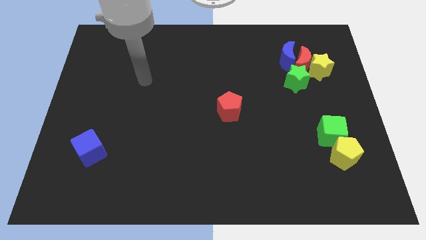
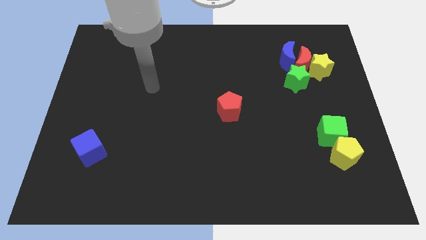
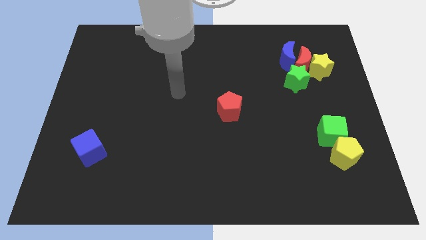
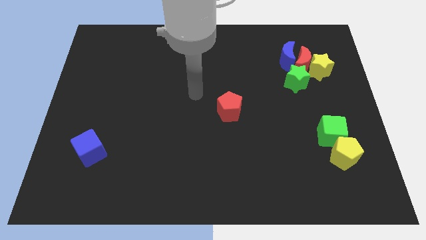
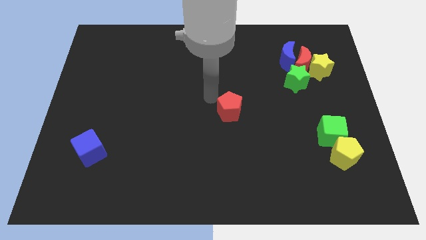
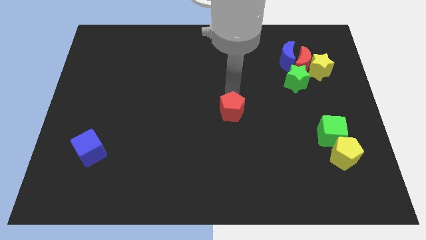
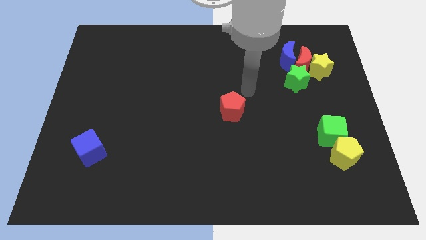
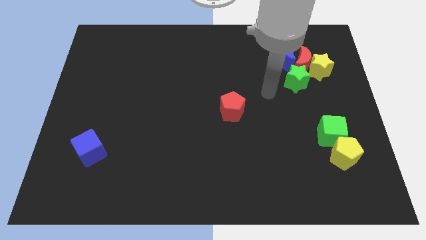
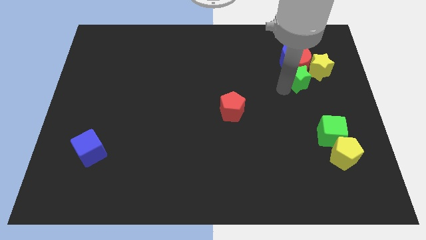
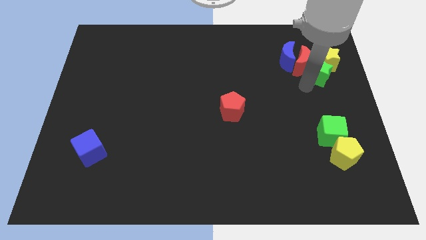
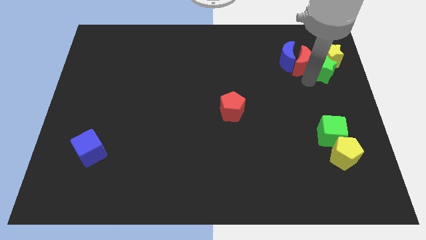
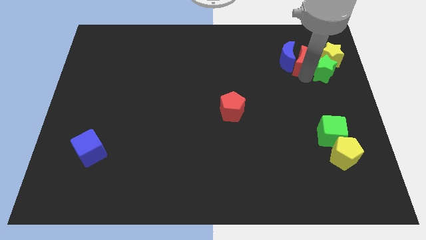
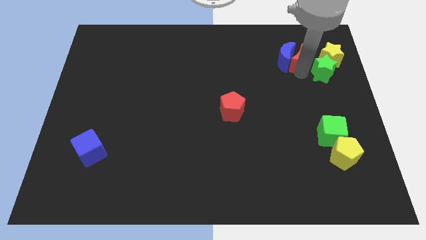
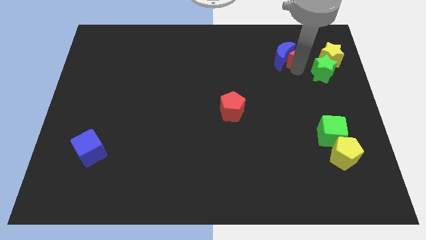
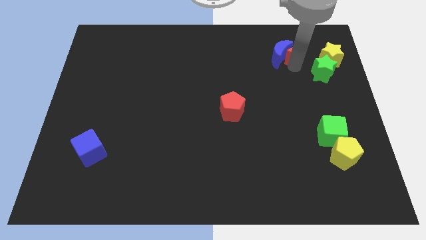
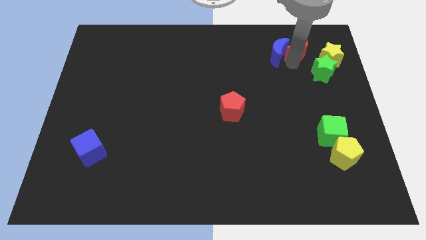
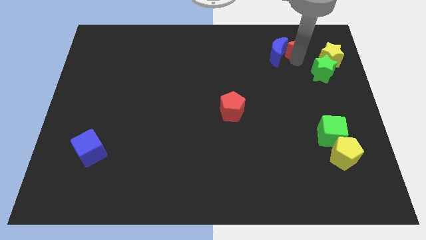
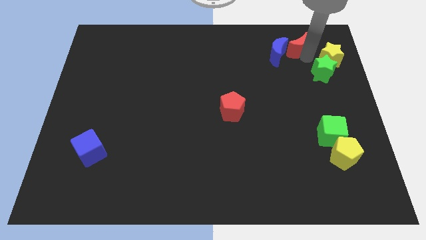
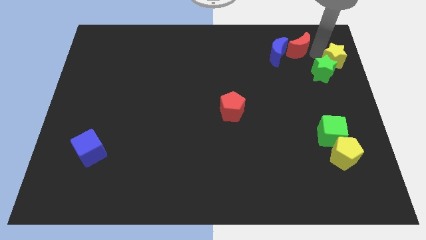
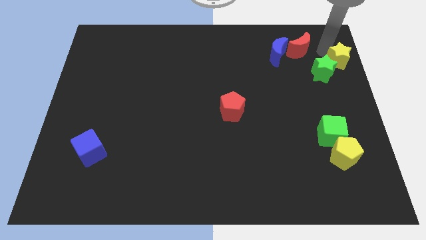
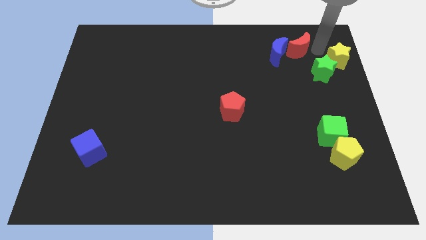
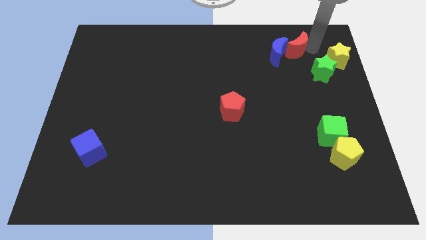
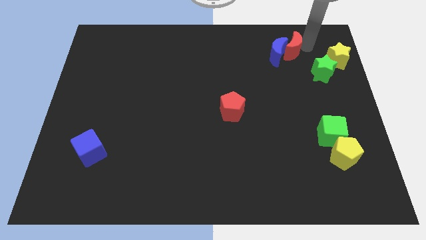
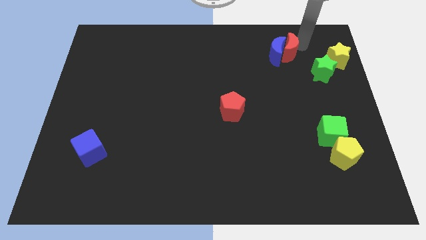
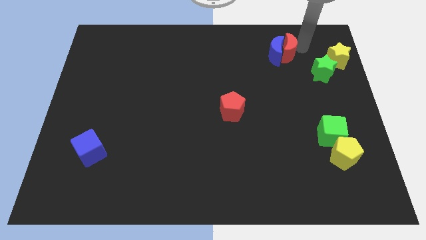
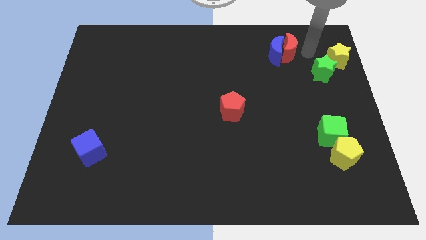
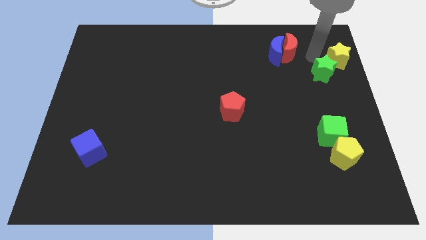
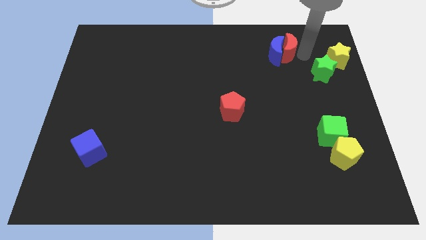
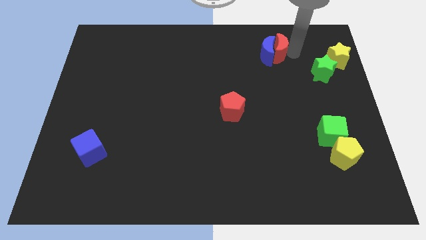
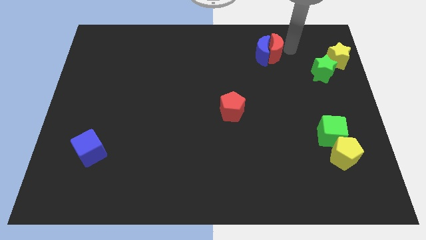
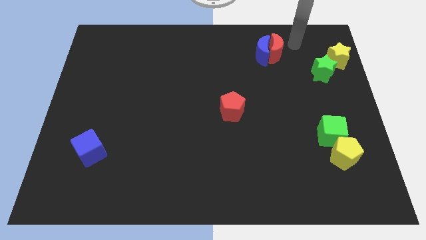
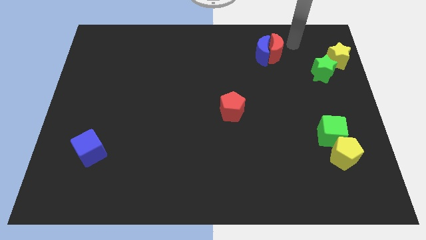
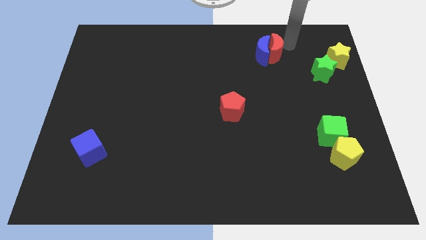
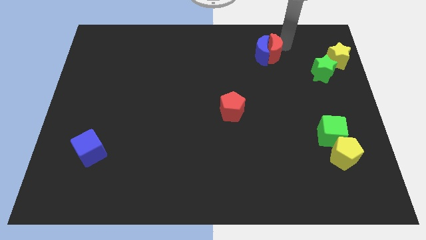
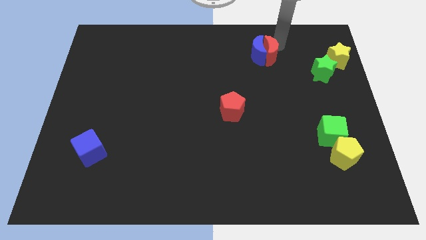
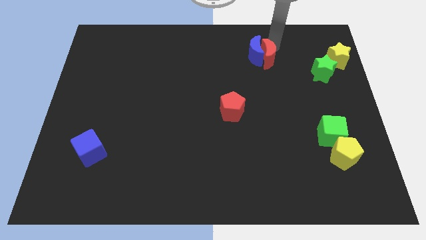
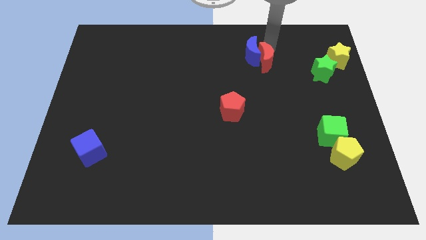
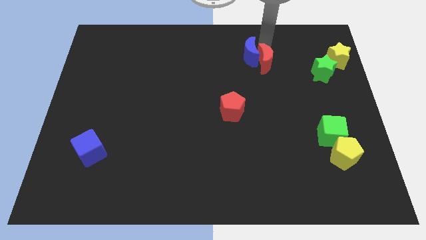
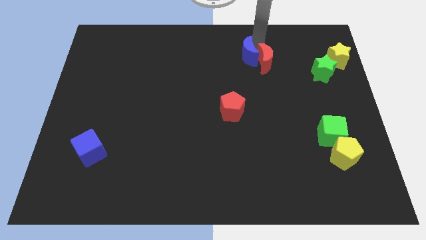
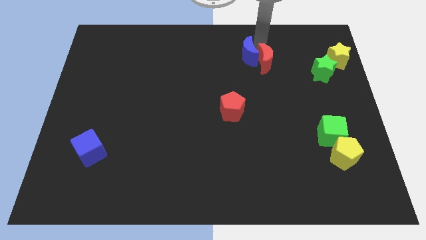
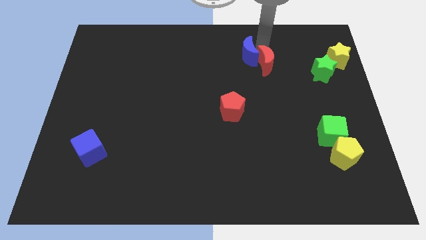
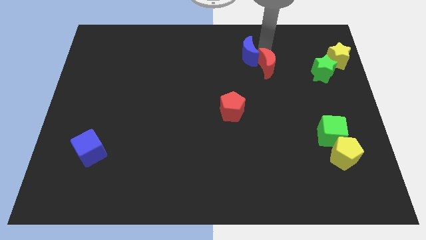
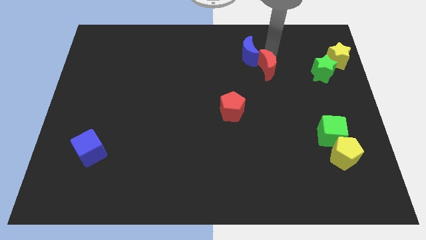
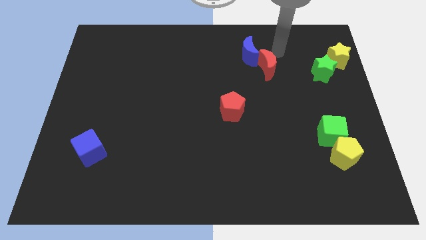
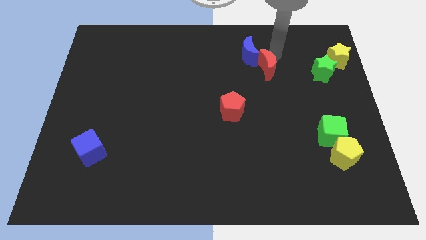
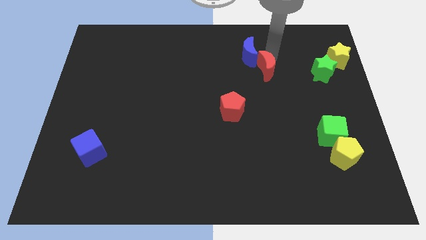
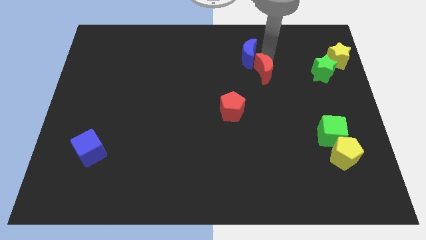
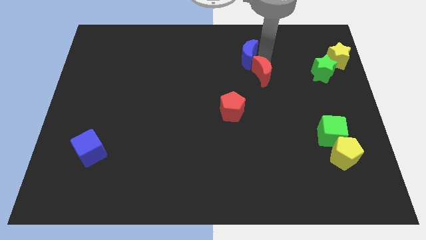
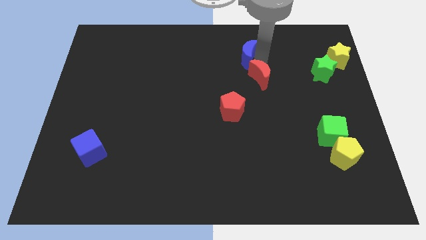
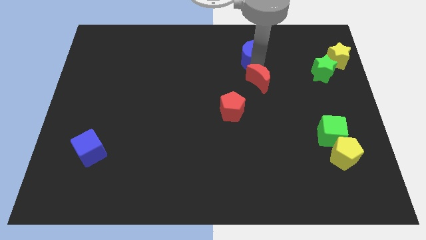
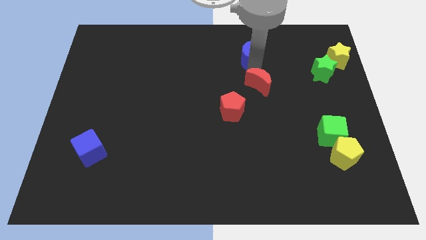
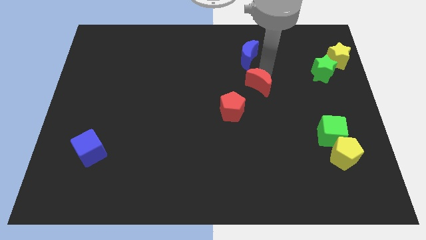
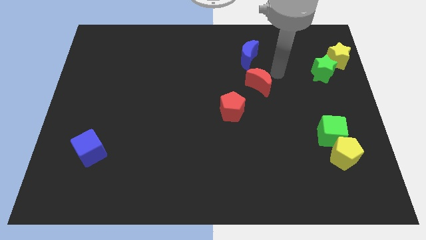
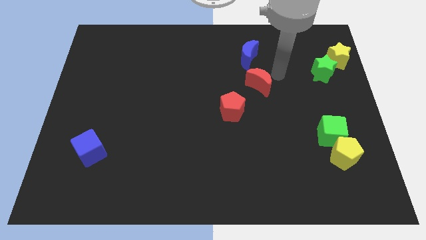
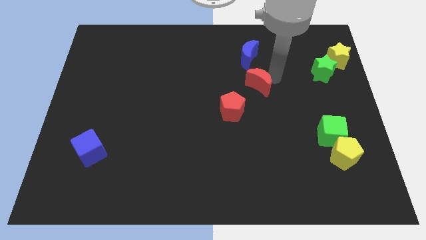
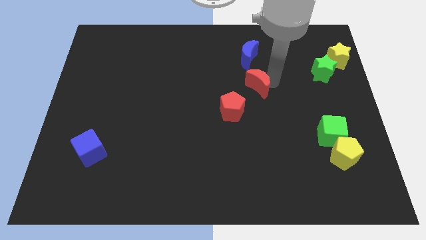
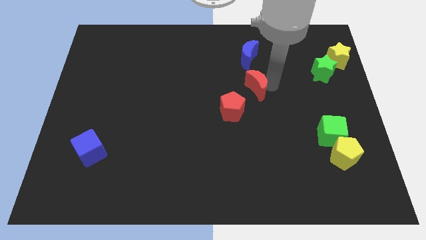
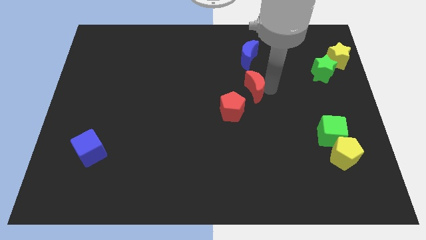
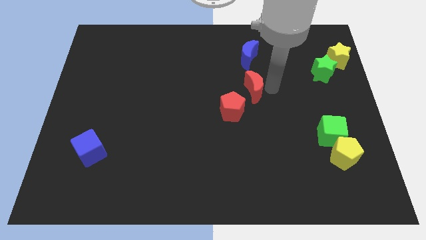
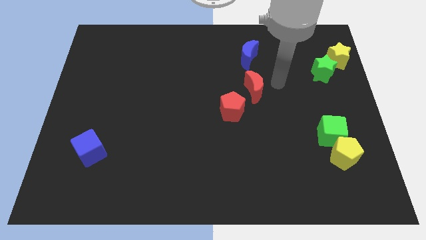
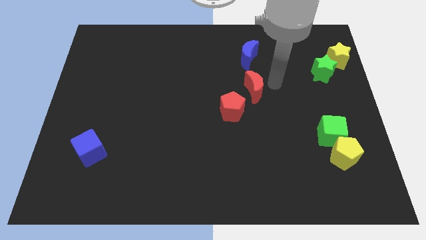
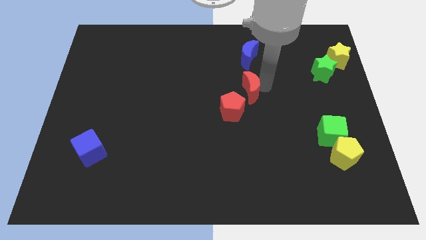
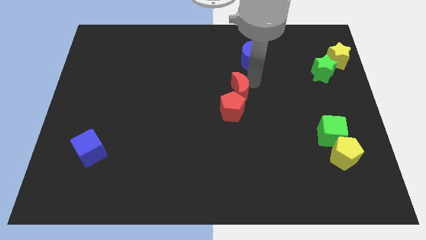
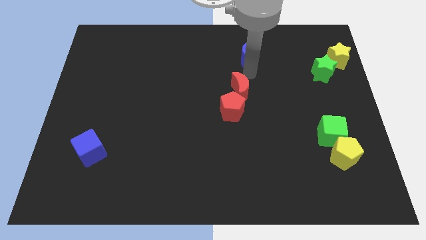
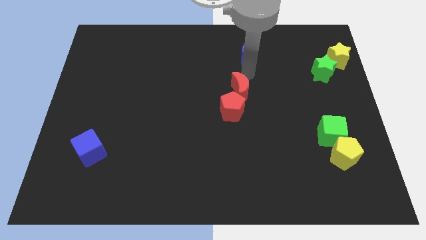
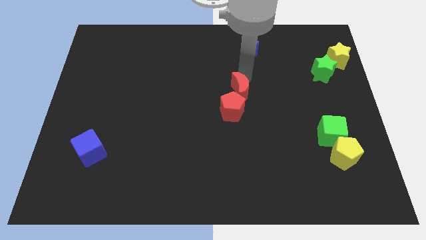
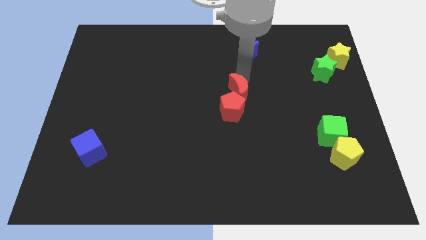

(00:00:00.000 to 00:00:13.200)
push the red moon close to the red pentagon

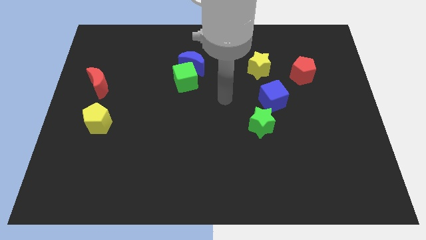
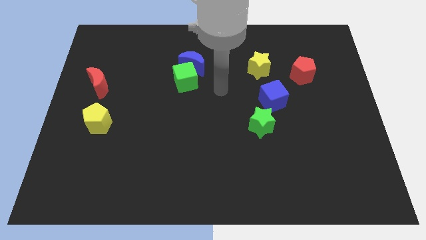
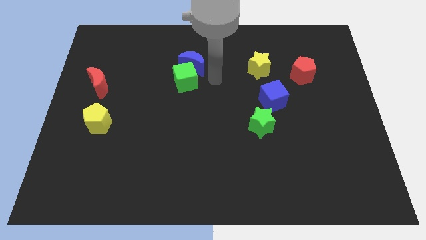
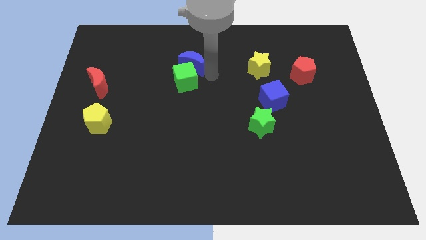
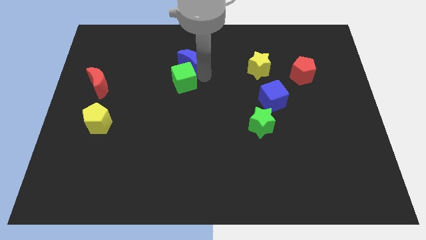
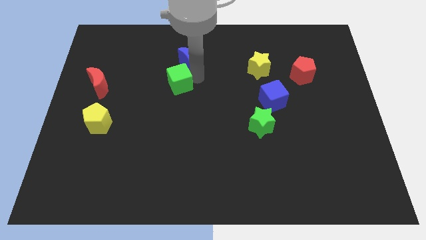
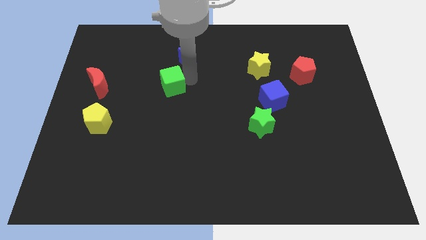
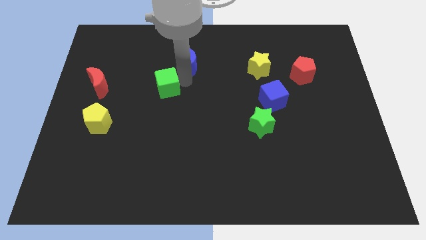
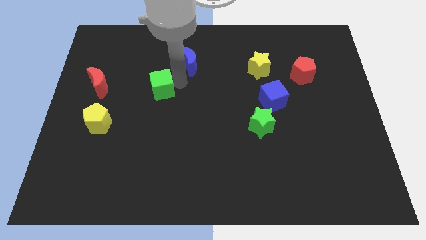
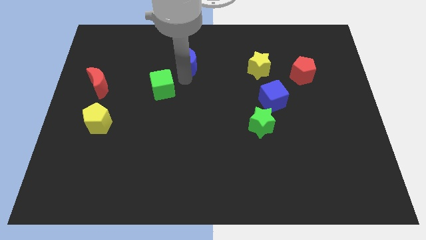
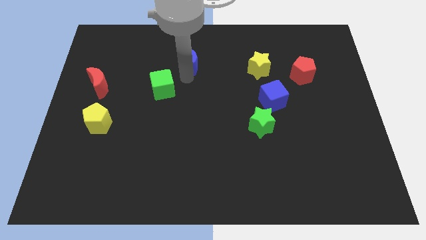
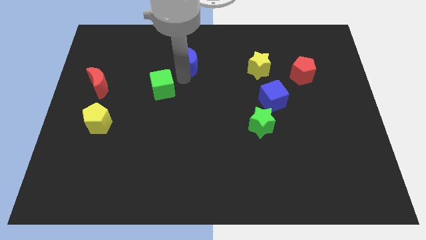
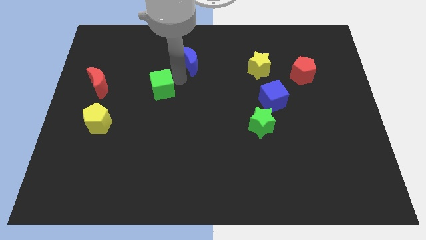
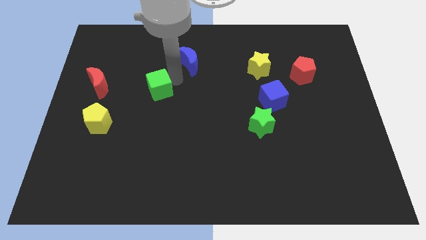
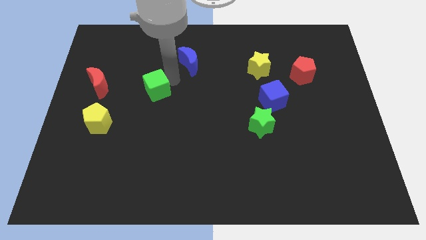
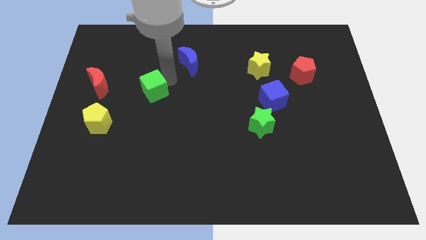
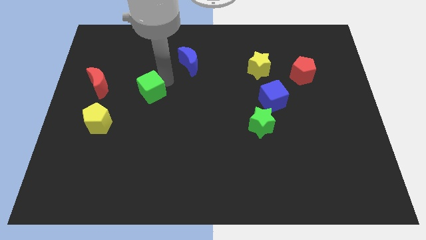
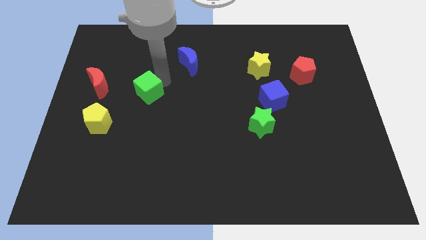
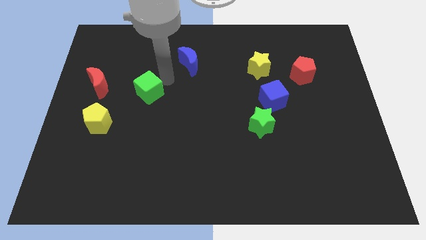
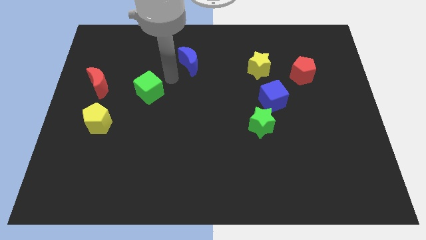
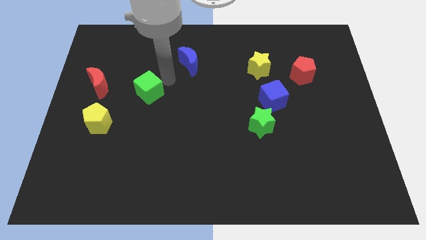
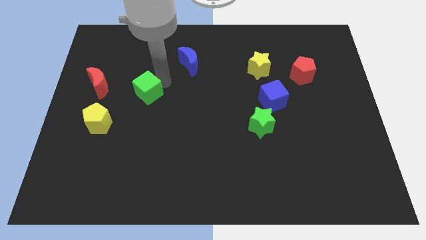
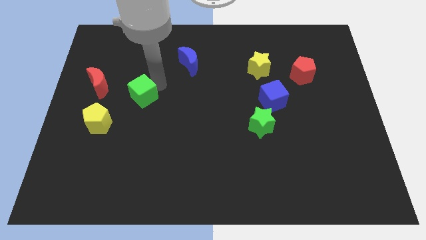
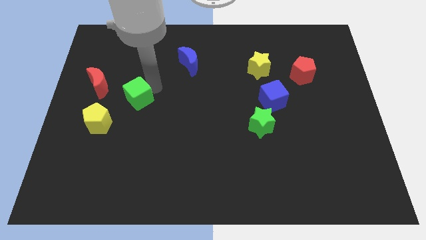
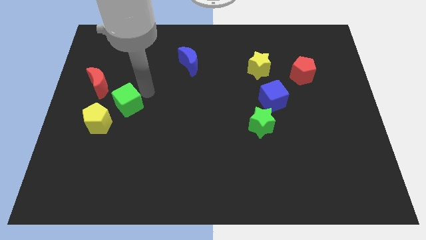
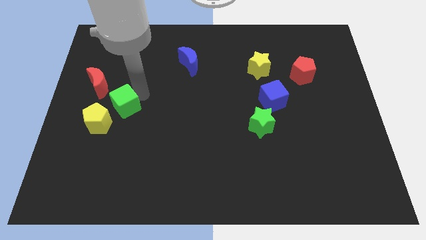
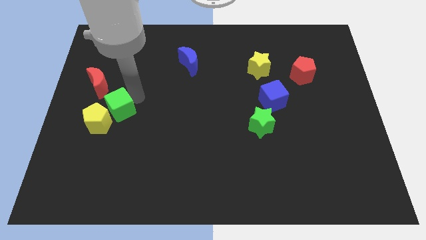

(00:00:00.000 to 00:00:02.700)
slide the green cube next to the yellow pentagon
